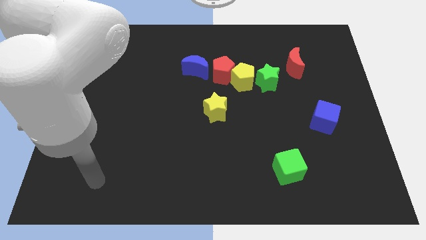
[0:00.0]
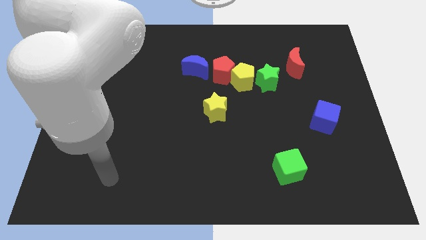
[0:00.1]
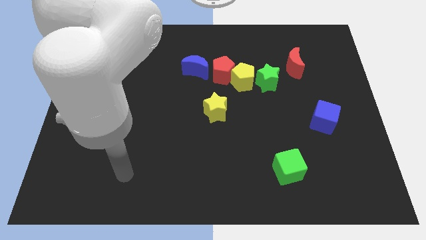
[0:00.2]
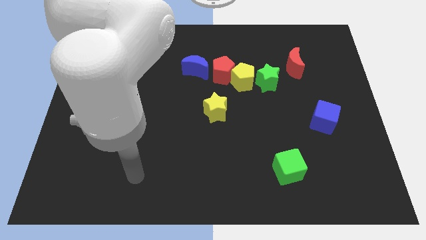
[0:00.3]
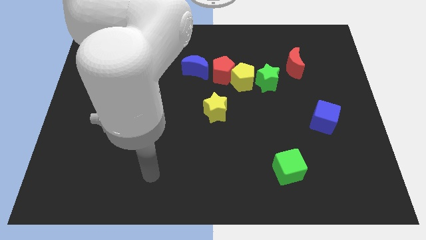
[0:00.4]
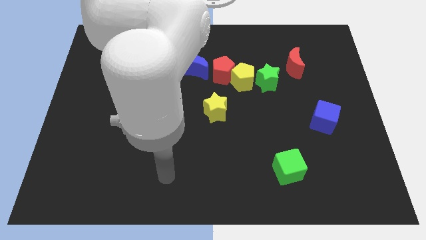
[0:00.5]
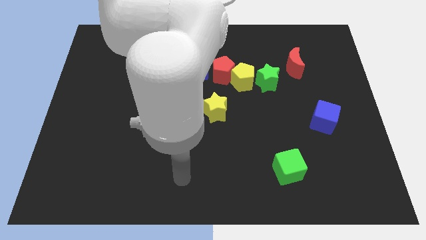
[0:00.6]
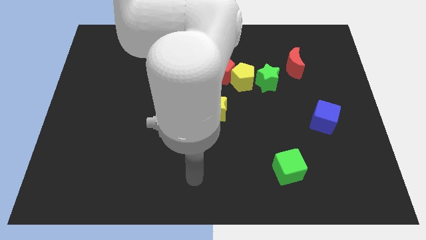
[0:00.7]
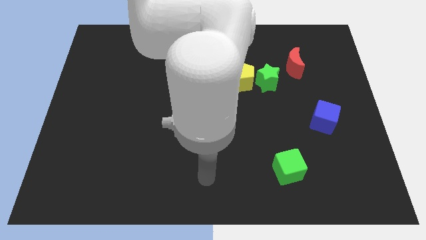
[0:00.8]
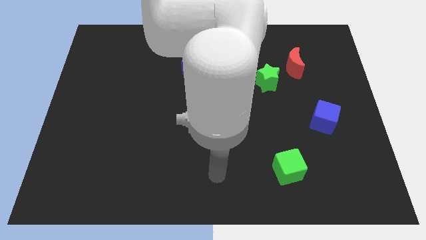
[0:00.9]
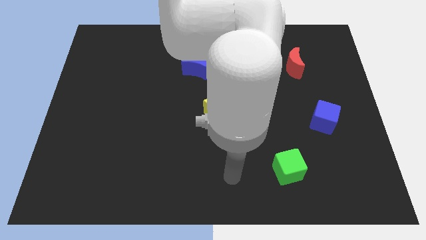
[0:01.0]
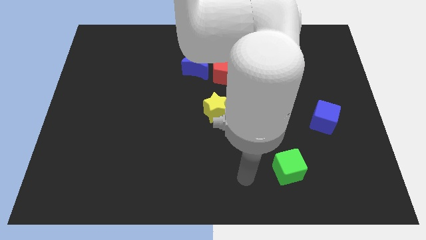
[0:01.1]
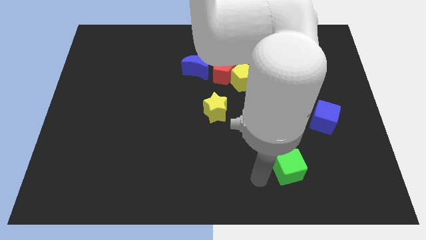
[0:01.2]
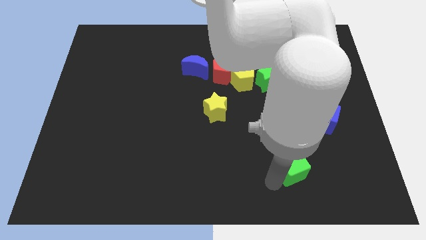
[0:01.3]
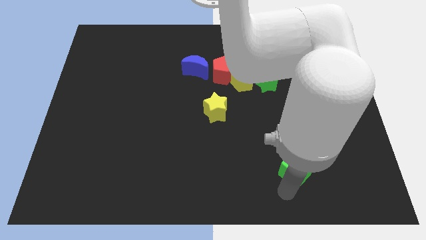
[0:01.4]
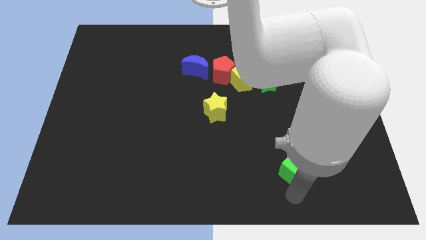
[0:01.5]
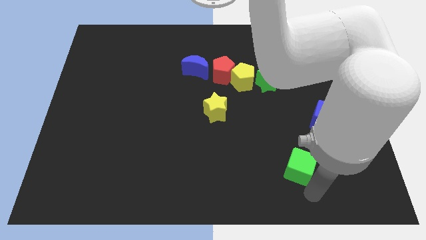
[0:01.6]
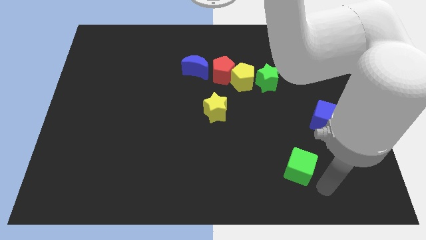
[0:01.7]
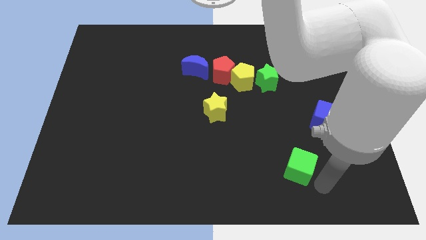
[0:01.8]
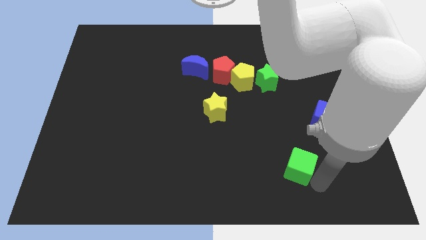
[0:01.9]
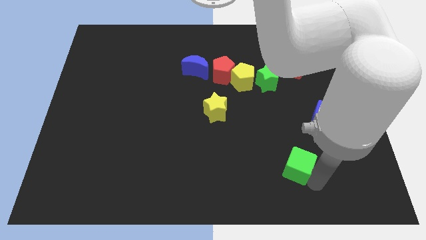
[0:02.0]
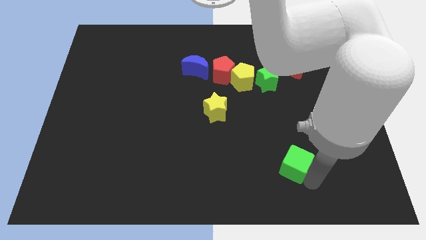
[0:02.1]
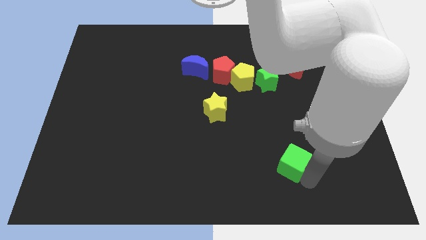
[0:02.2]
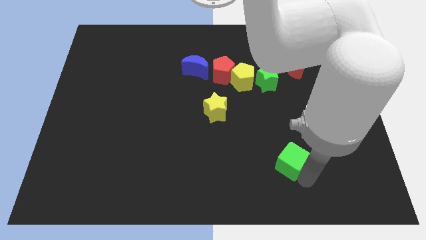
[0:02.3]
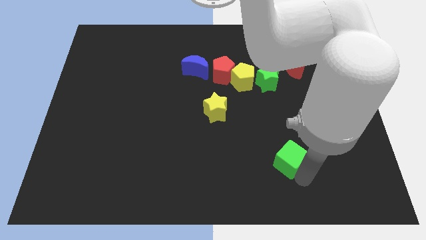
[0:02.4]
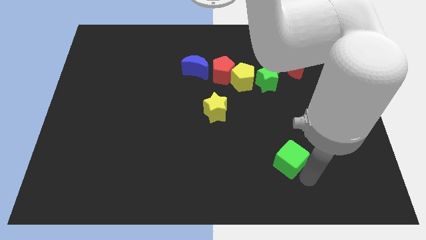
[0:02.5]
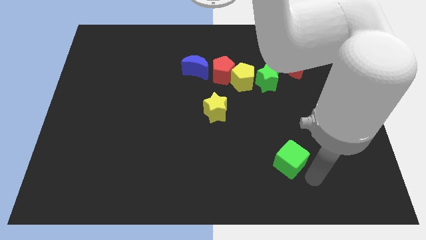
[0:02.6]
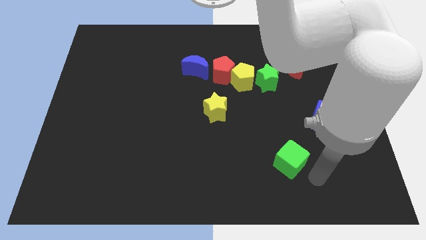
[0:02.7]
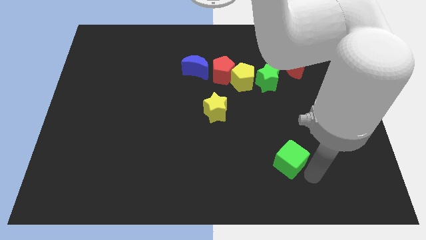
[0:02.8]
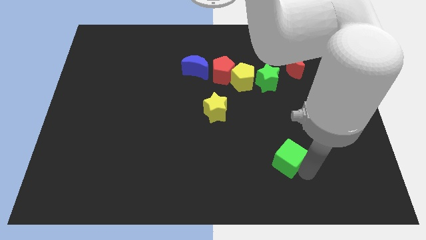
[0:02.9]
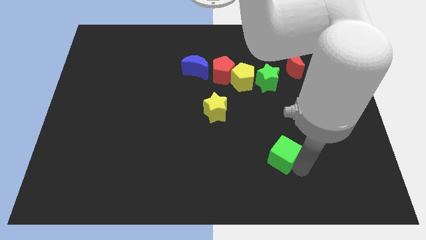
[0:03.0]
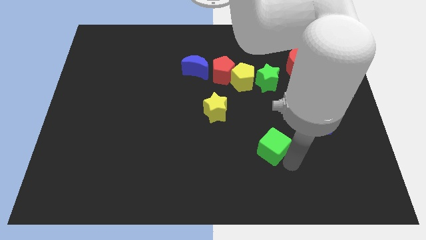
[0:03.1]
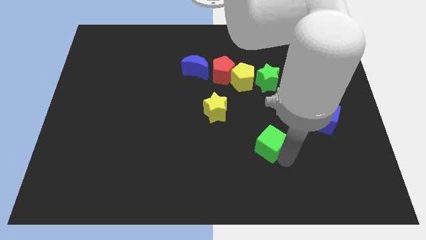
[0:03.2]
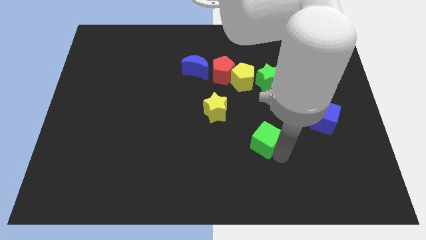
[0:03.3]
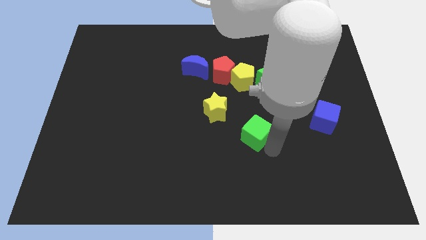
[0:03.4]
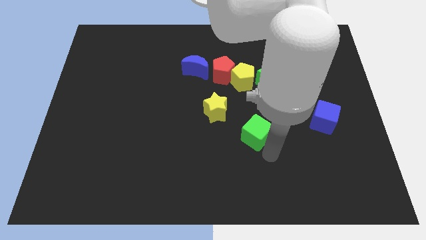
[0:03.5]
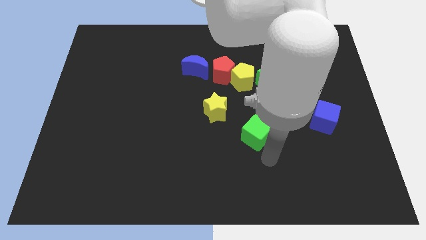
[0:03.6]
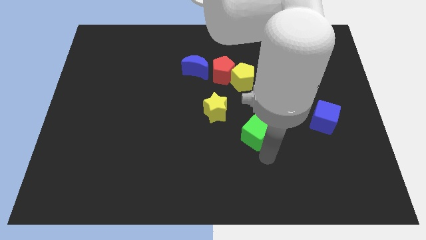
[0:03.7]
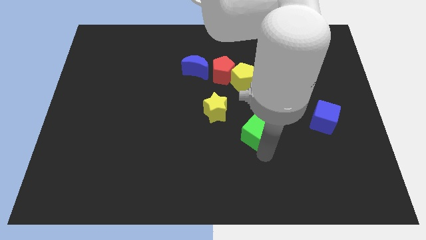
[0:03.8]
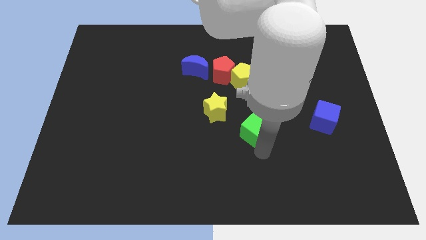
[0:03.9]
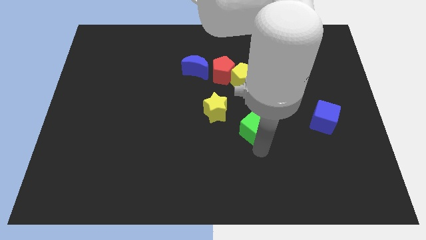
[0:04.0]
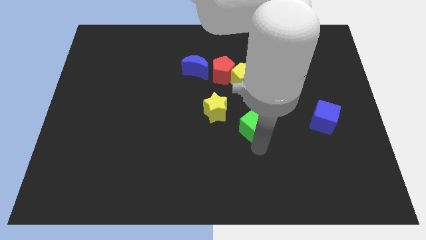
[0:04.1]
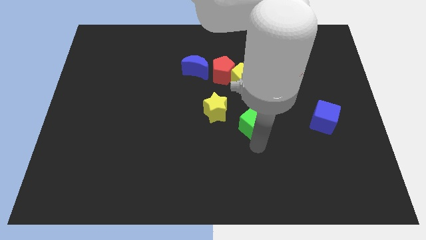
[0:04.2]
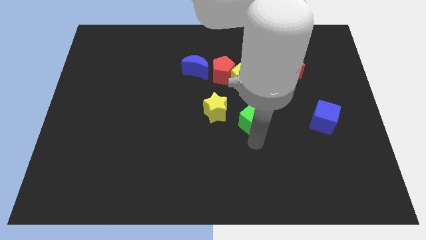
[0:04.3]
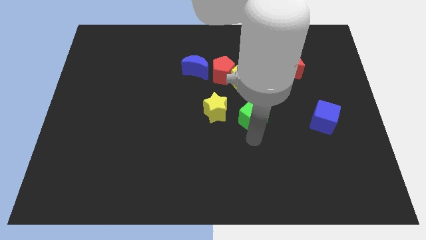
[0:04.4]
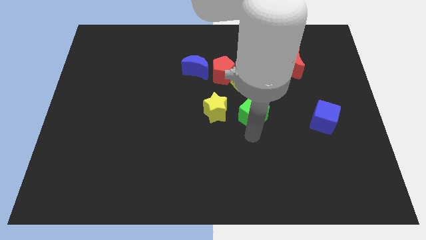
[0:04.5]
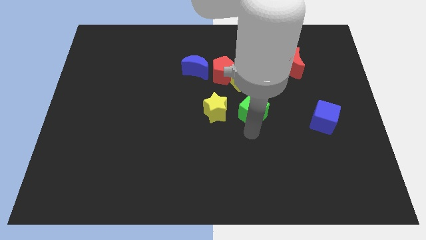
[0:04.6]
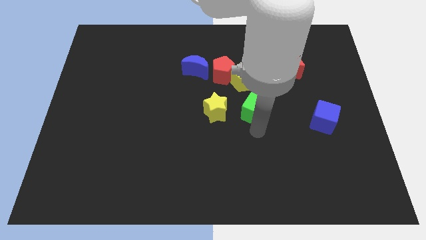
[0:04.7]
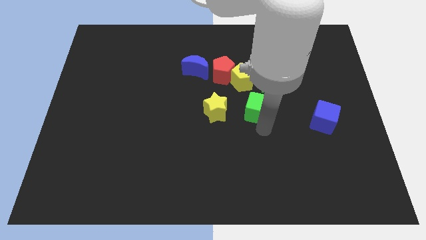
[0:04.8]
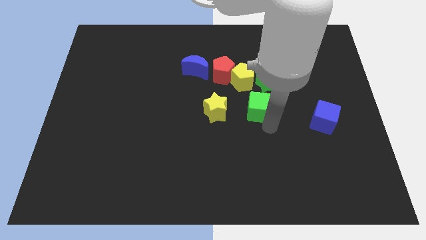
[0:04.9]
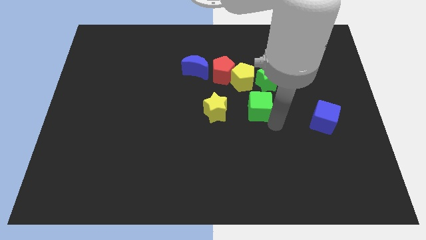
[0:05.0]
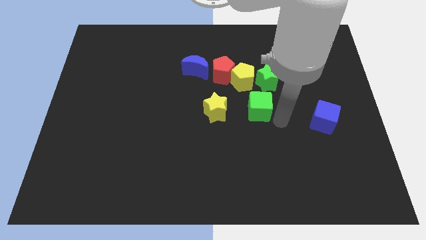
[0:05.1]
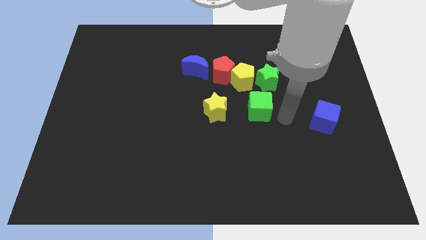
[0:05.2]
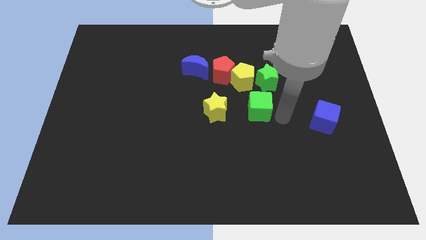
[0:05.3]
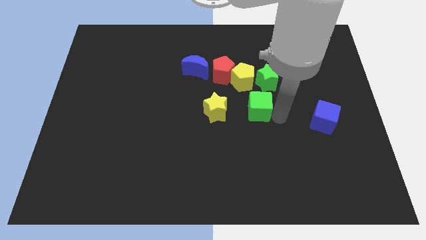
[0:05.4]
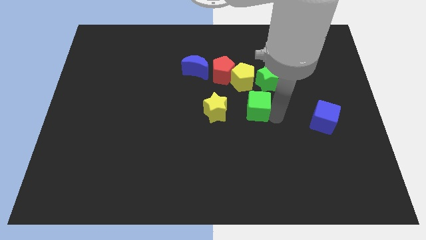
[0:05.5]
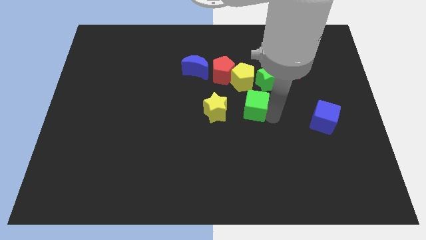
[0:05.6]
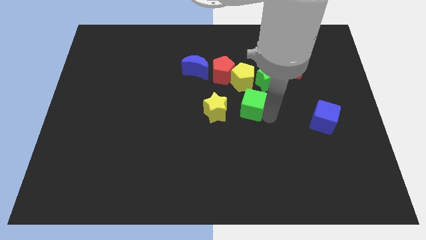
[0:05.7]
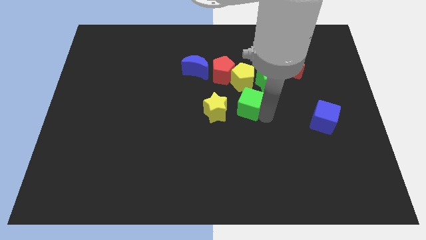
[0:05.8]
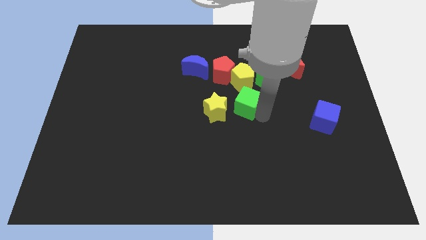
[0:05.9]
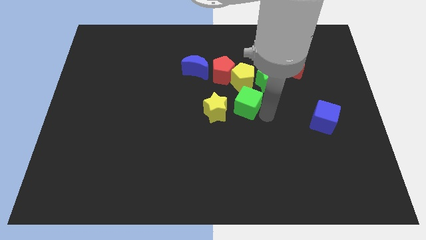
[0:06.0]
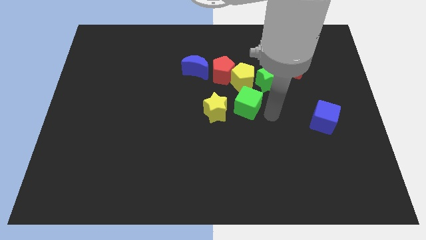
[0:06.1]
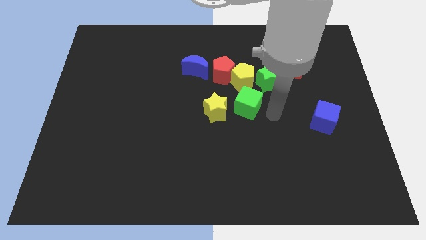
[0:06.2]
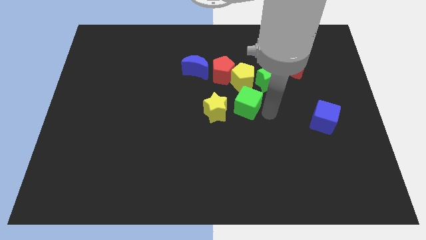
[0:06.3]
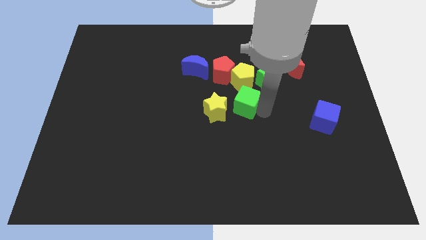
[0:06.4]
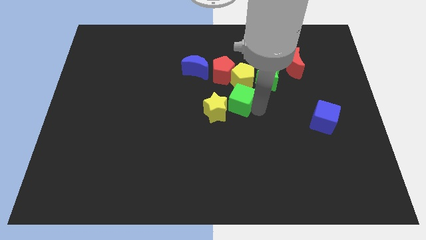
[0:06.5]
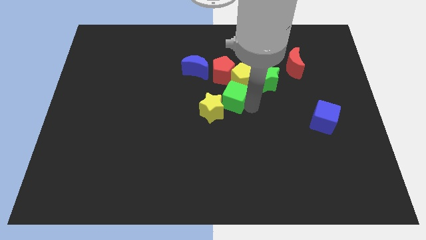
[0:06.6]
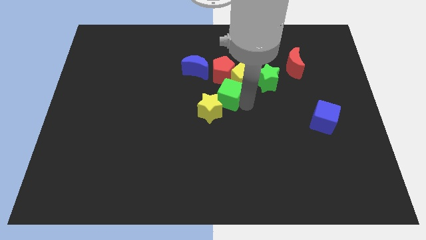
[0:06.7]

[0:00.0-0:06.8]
slide the green cube upwards and left

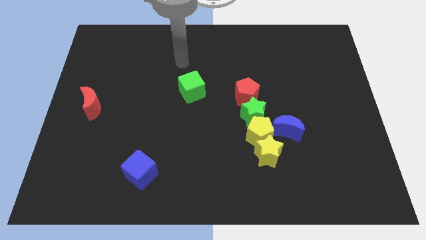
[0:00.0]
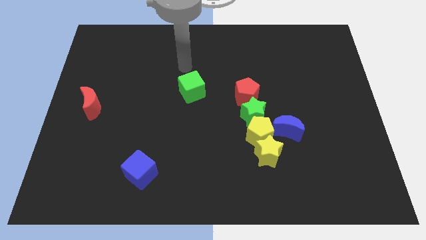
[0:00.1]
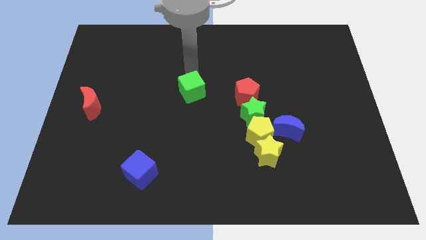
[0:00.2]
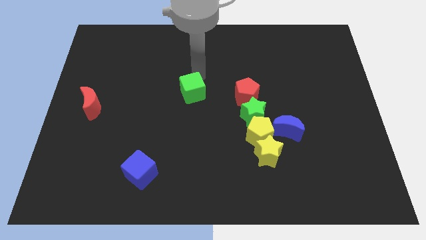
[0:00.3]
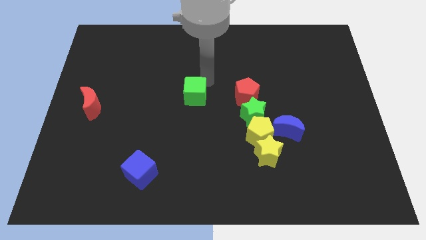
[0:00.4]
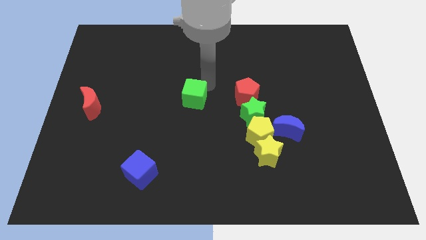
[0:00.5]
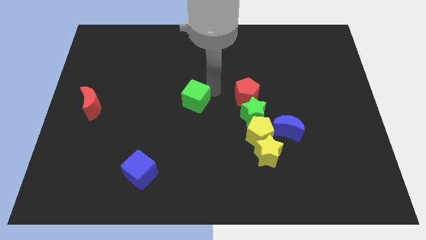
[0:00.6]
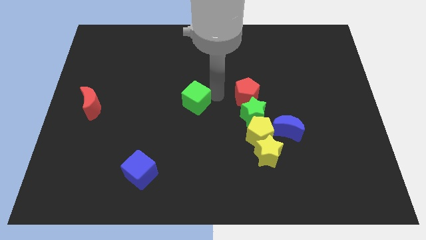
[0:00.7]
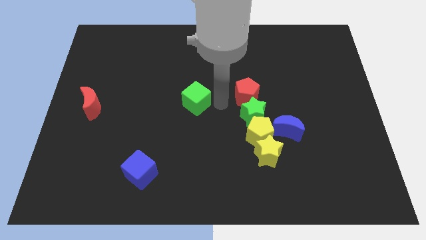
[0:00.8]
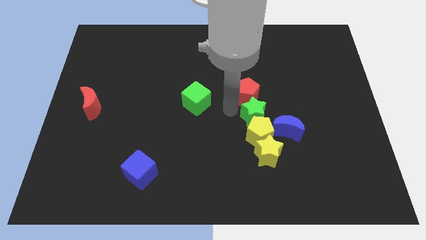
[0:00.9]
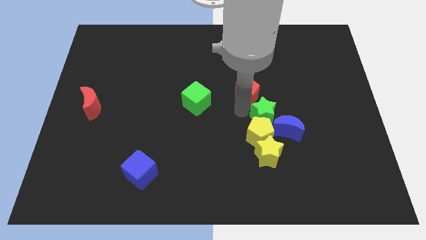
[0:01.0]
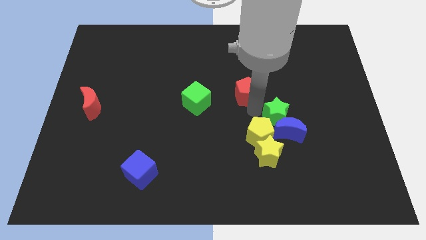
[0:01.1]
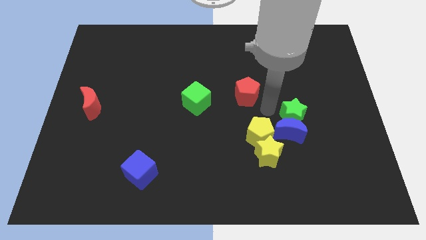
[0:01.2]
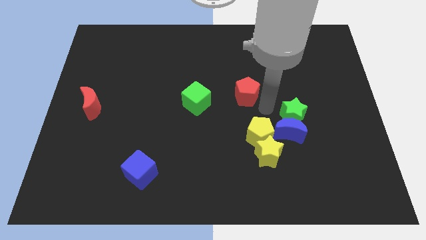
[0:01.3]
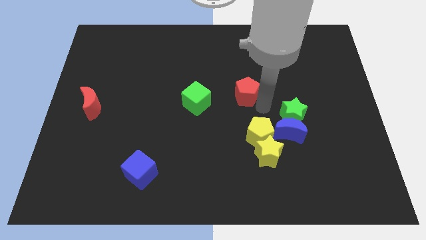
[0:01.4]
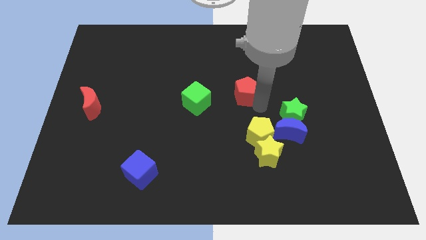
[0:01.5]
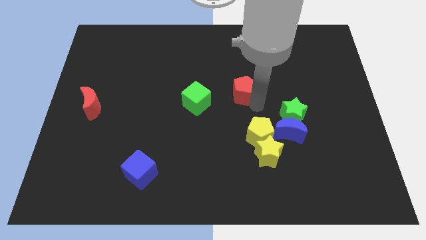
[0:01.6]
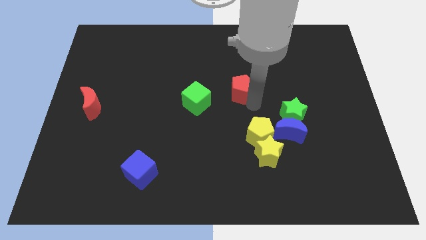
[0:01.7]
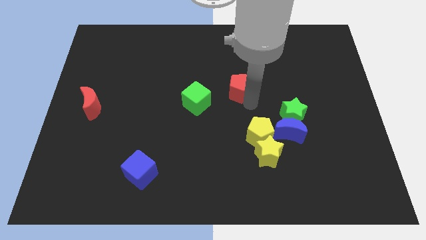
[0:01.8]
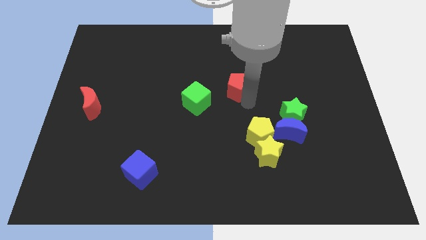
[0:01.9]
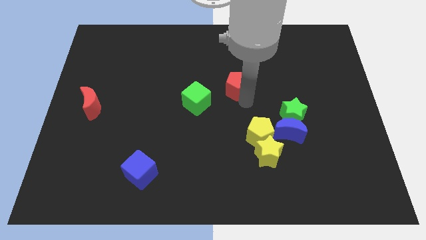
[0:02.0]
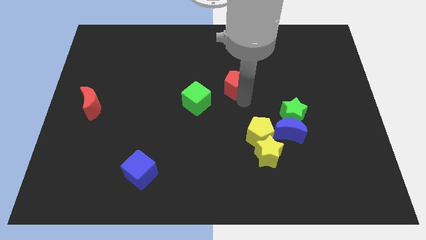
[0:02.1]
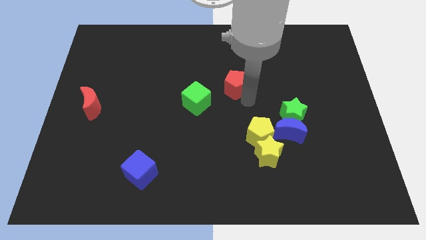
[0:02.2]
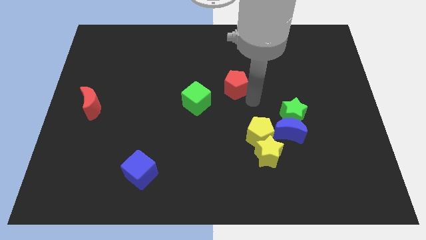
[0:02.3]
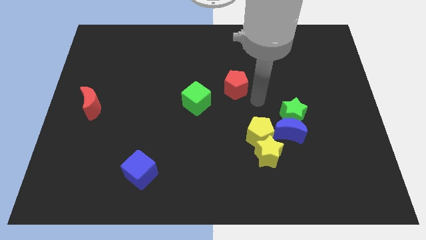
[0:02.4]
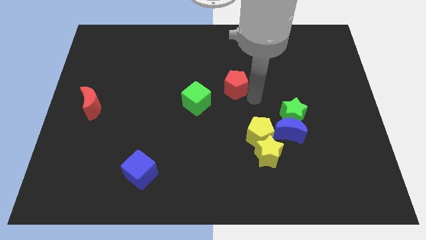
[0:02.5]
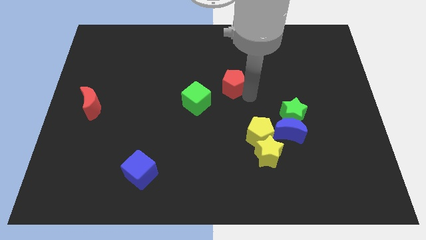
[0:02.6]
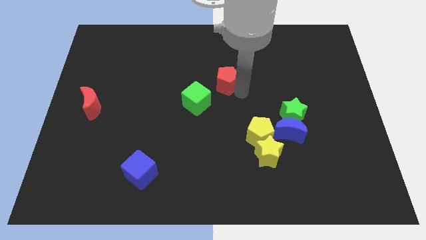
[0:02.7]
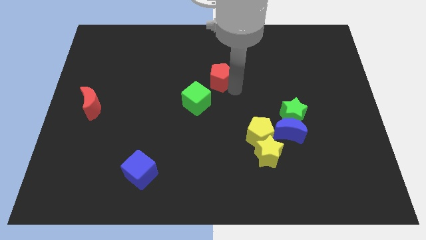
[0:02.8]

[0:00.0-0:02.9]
move the red pentagon upwards and left a little bit
